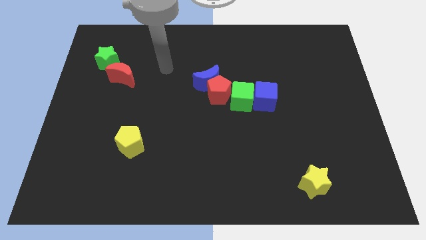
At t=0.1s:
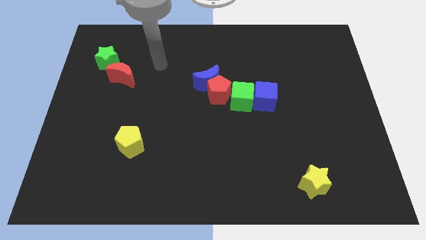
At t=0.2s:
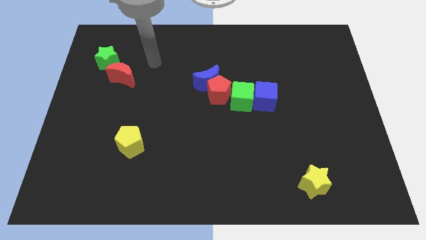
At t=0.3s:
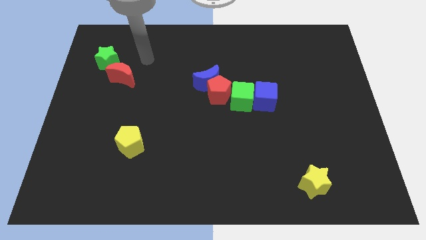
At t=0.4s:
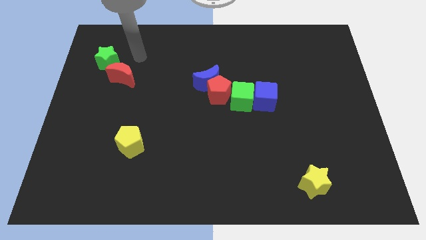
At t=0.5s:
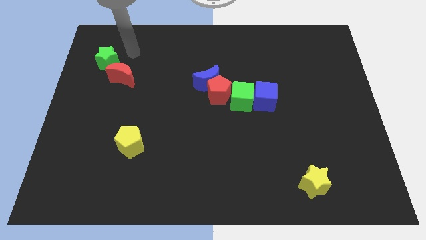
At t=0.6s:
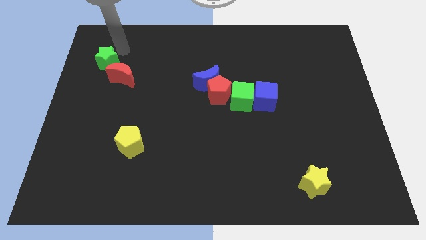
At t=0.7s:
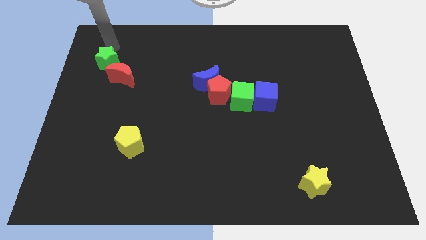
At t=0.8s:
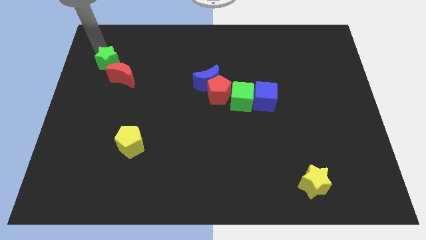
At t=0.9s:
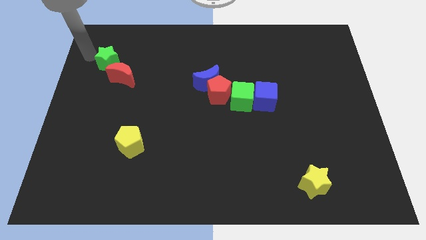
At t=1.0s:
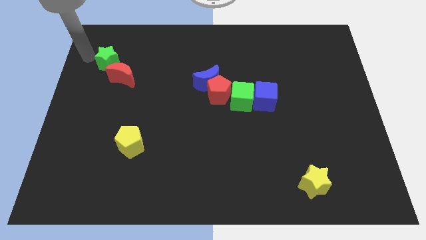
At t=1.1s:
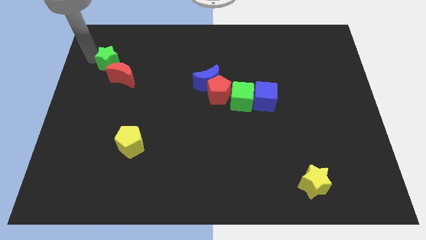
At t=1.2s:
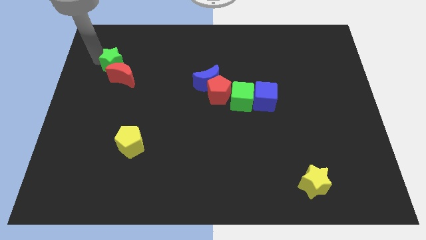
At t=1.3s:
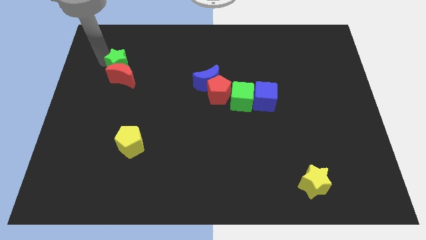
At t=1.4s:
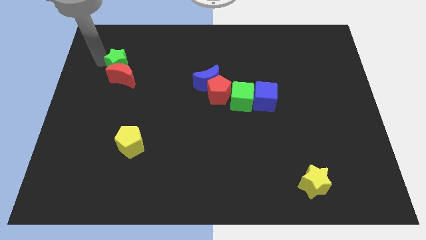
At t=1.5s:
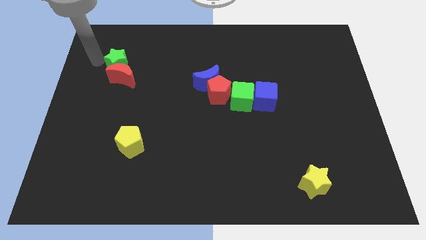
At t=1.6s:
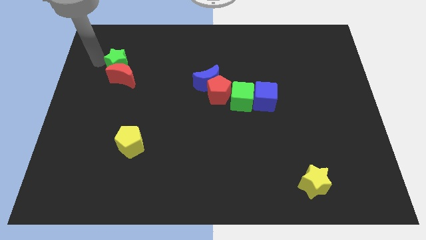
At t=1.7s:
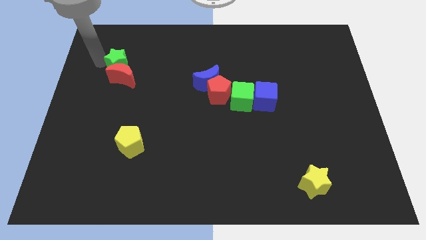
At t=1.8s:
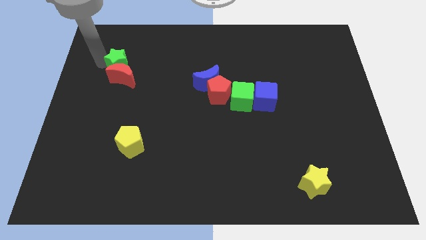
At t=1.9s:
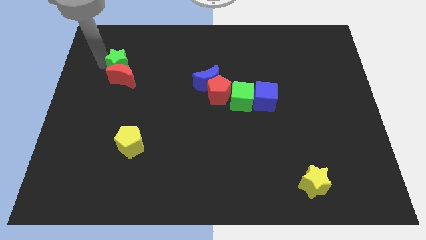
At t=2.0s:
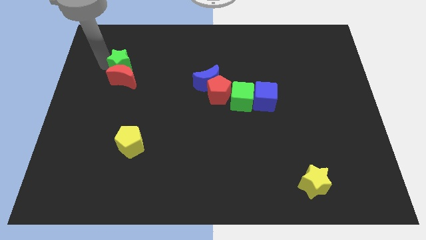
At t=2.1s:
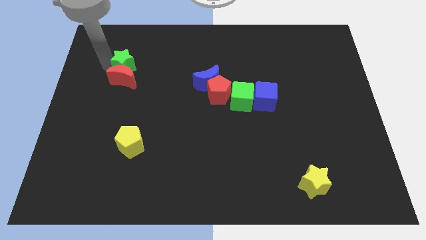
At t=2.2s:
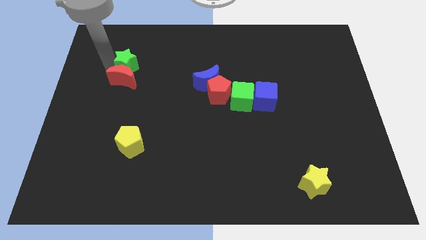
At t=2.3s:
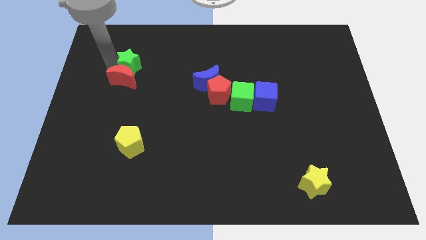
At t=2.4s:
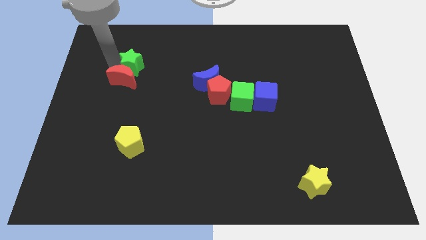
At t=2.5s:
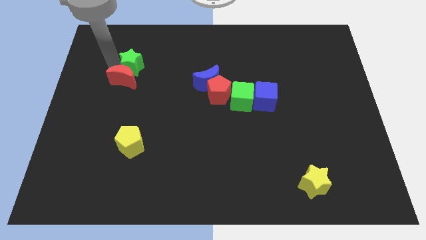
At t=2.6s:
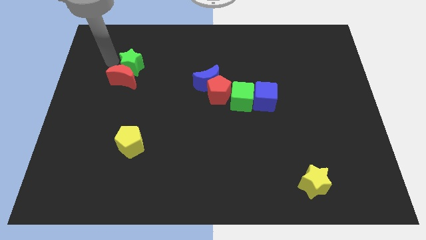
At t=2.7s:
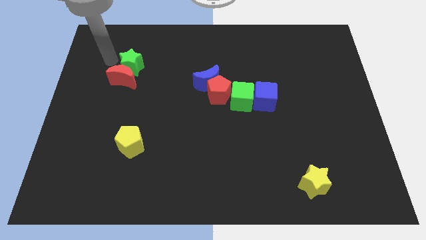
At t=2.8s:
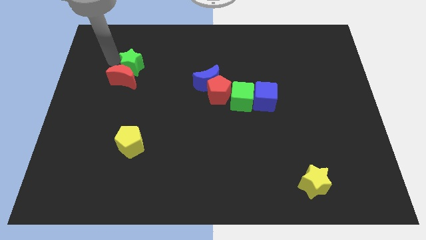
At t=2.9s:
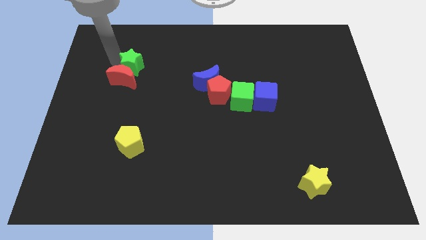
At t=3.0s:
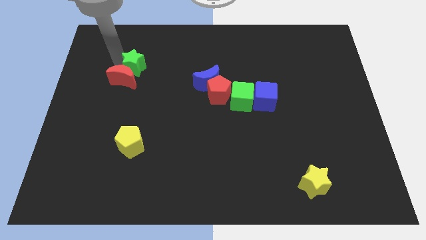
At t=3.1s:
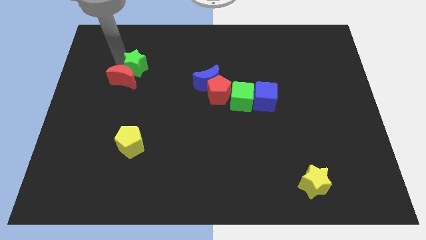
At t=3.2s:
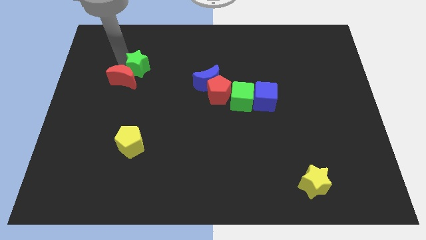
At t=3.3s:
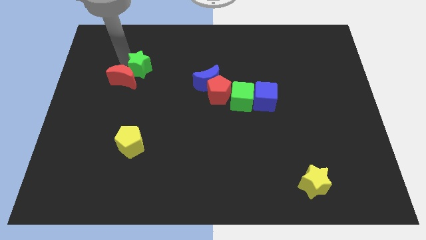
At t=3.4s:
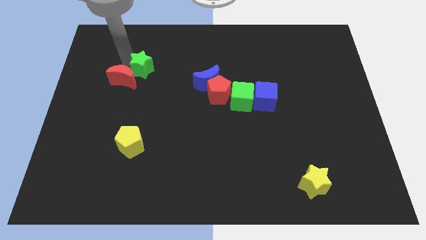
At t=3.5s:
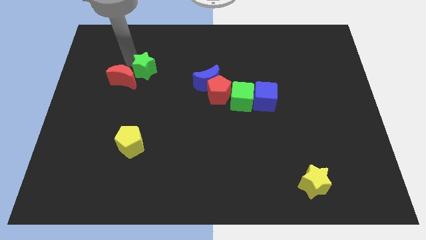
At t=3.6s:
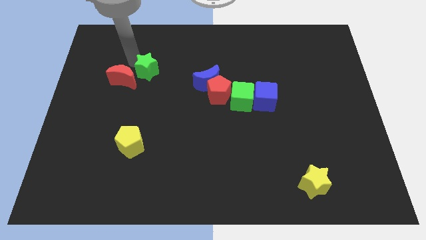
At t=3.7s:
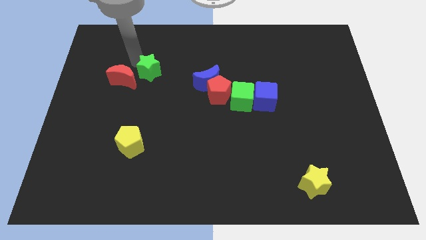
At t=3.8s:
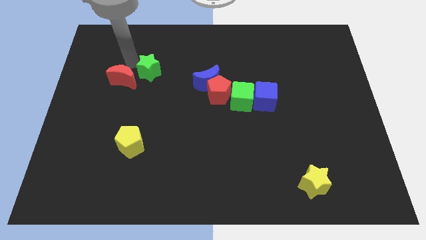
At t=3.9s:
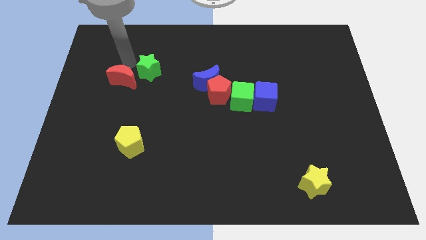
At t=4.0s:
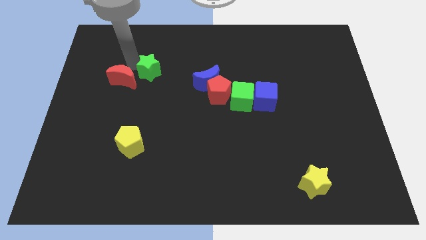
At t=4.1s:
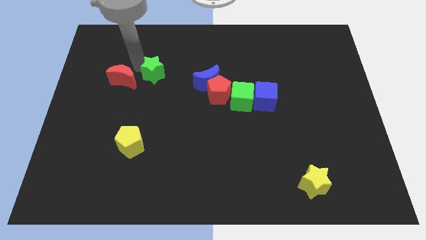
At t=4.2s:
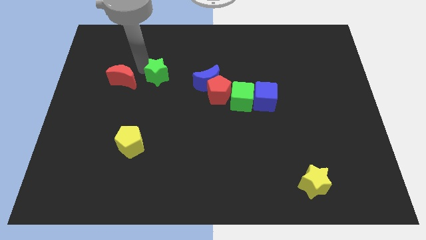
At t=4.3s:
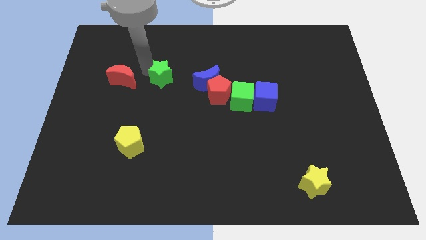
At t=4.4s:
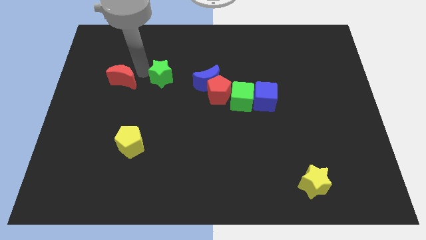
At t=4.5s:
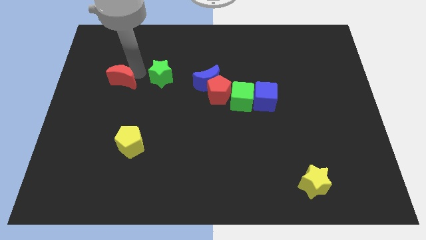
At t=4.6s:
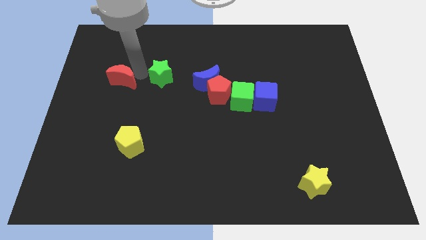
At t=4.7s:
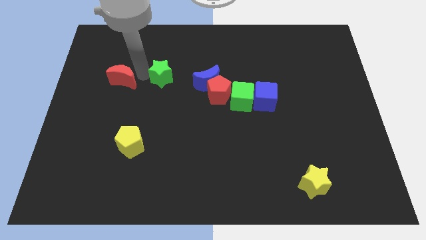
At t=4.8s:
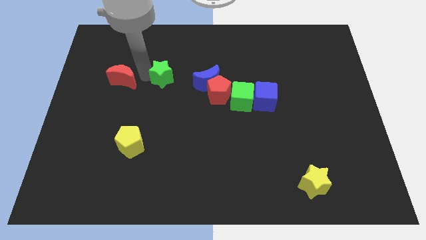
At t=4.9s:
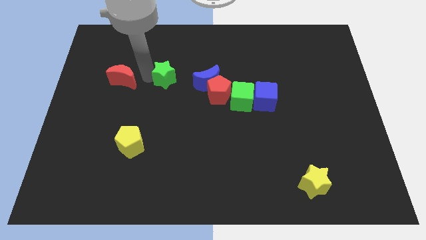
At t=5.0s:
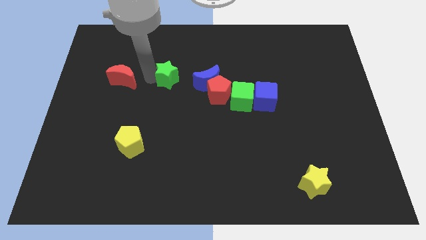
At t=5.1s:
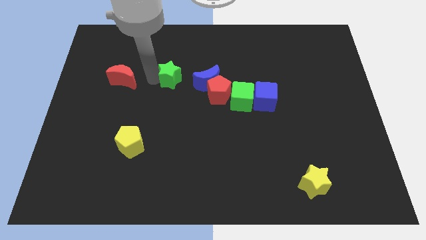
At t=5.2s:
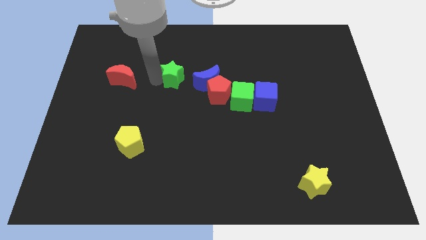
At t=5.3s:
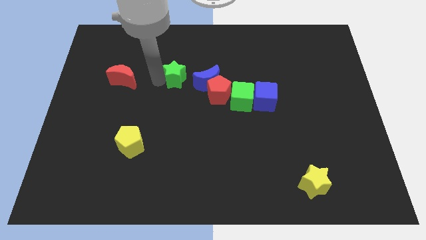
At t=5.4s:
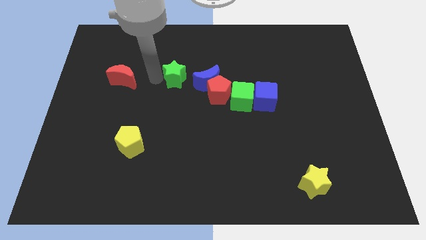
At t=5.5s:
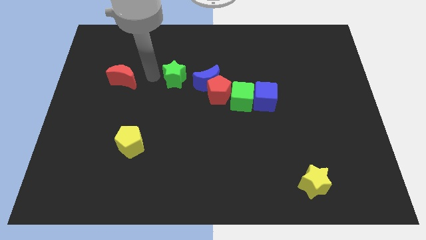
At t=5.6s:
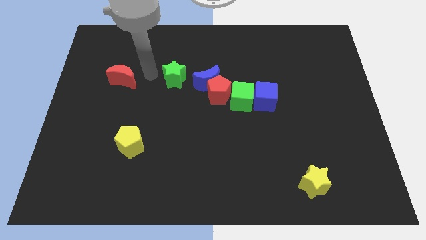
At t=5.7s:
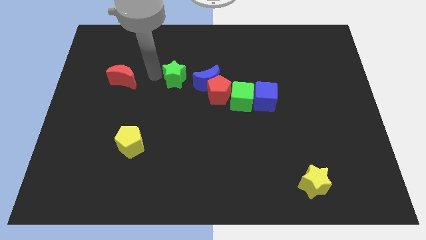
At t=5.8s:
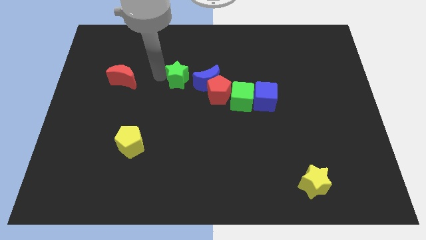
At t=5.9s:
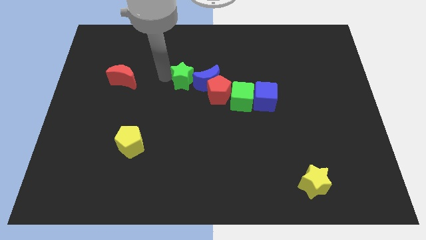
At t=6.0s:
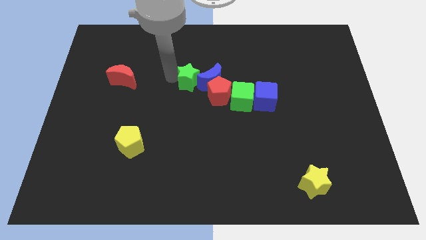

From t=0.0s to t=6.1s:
move the green star close to the blue moon

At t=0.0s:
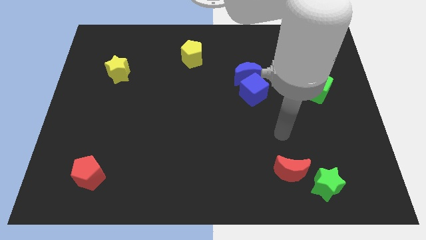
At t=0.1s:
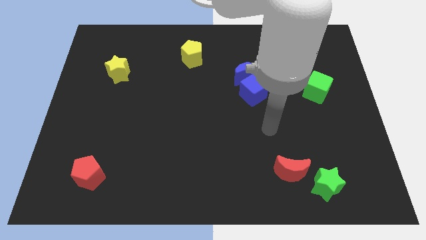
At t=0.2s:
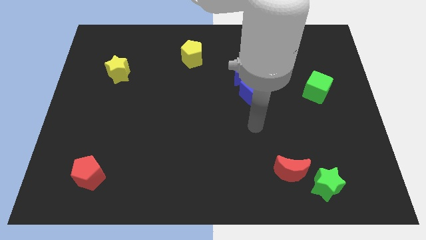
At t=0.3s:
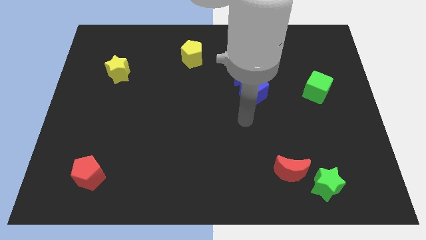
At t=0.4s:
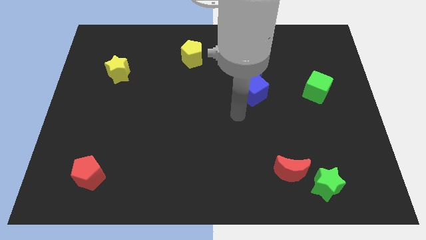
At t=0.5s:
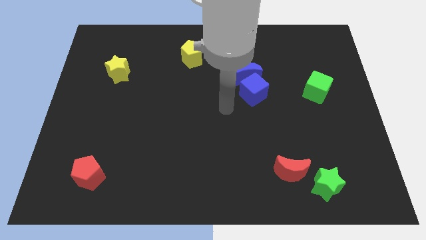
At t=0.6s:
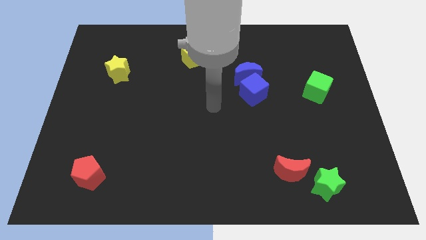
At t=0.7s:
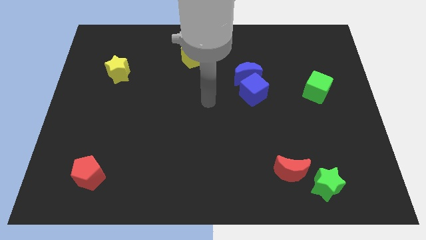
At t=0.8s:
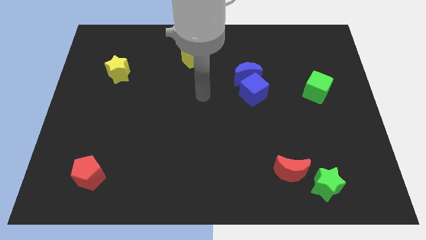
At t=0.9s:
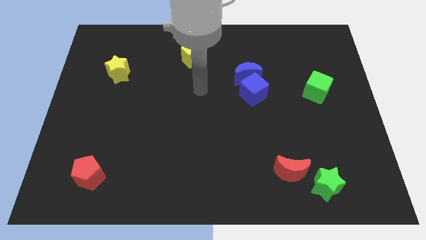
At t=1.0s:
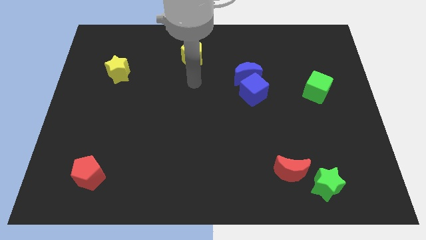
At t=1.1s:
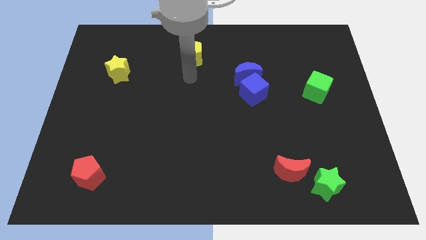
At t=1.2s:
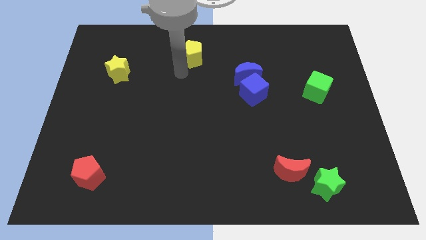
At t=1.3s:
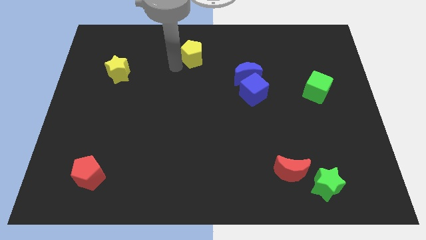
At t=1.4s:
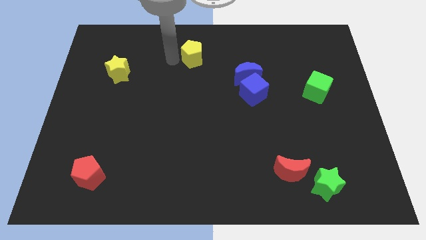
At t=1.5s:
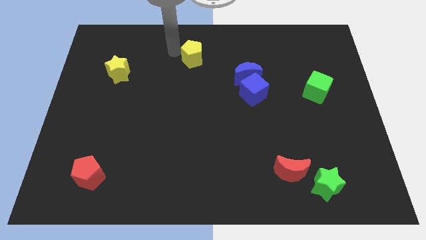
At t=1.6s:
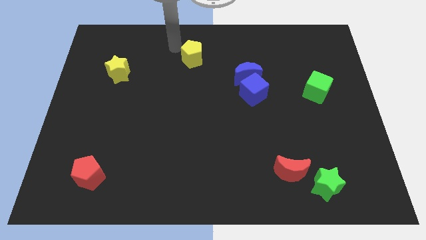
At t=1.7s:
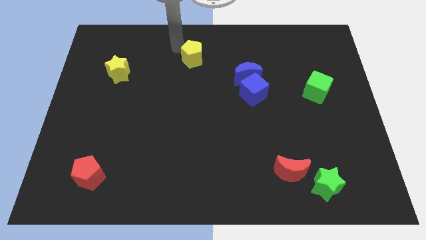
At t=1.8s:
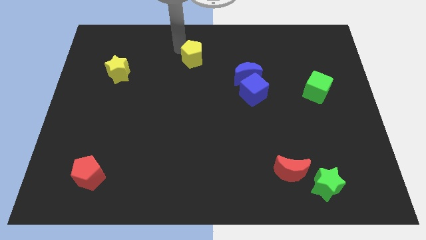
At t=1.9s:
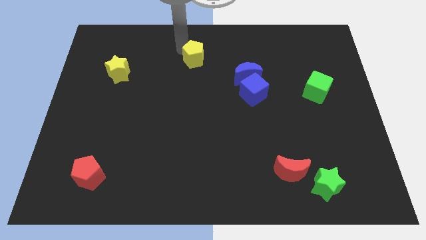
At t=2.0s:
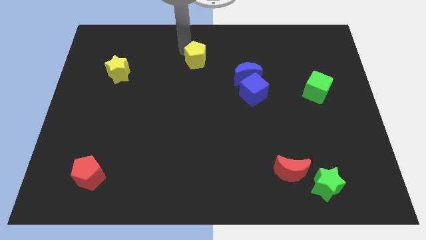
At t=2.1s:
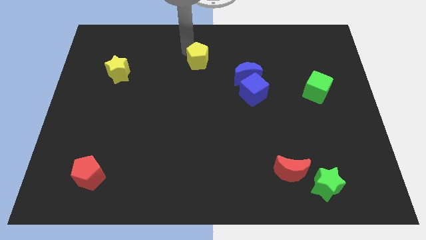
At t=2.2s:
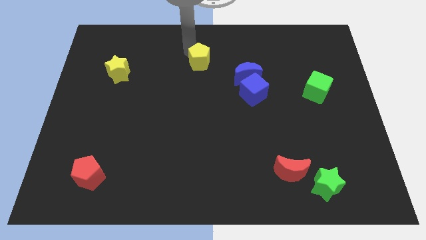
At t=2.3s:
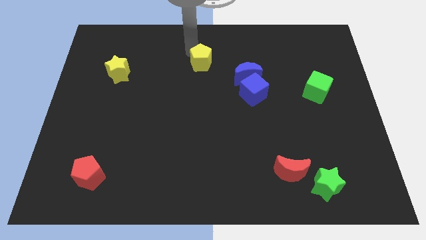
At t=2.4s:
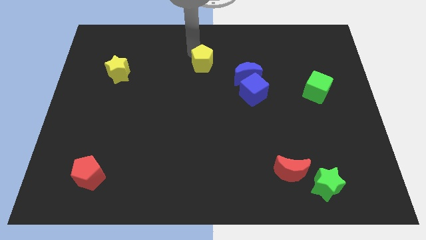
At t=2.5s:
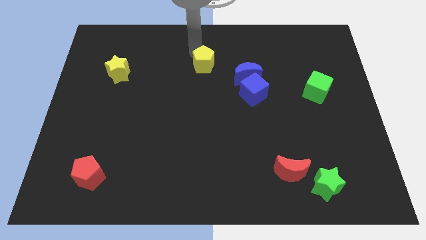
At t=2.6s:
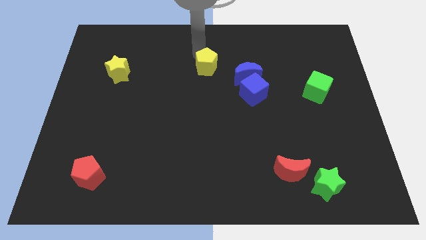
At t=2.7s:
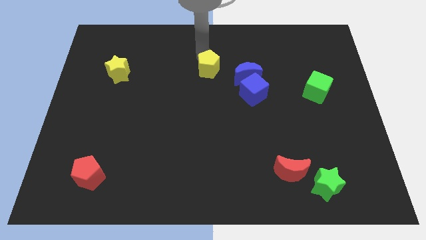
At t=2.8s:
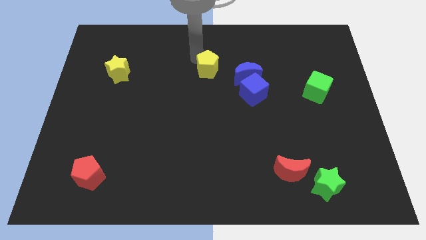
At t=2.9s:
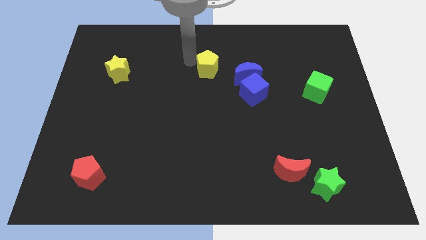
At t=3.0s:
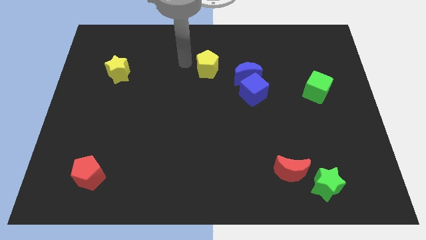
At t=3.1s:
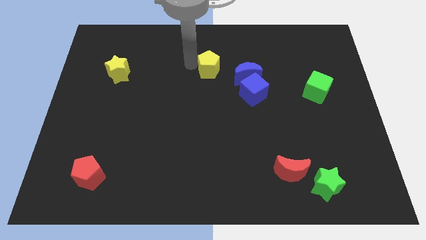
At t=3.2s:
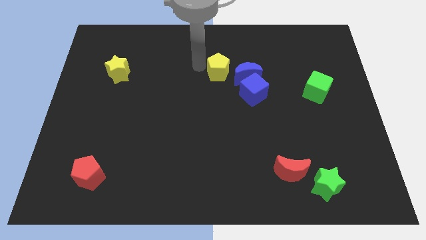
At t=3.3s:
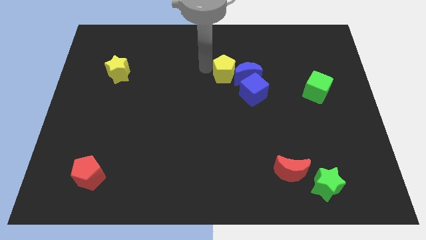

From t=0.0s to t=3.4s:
move the yellow pentagon next to the blue moon
